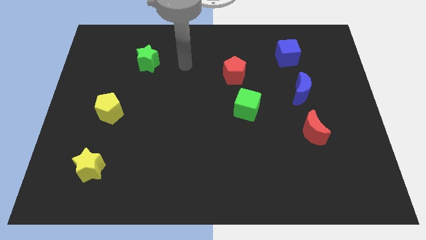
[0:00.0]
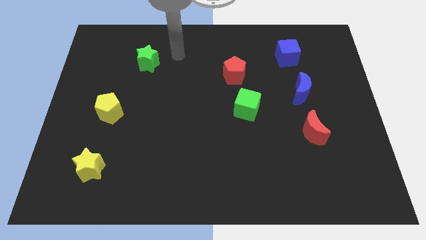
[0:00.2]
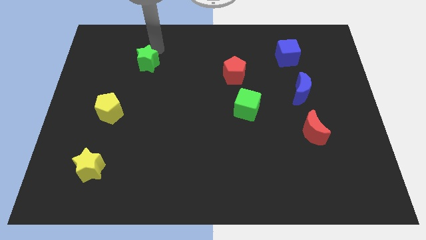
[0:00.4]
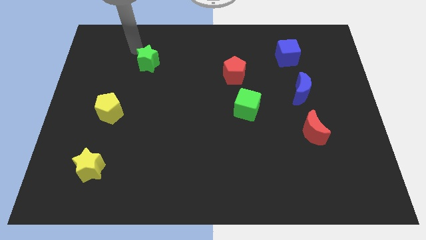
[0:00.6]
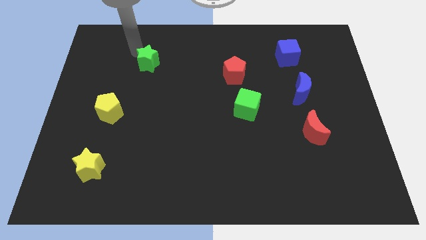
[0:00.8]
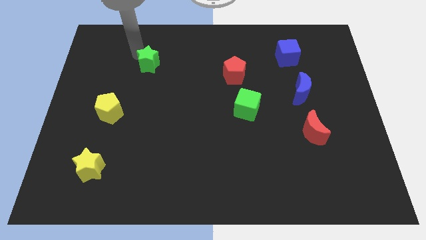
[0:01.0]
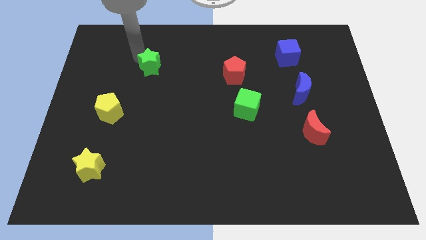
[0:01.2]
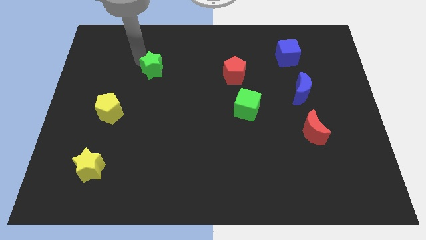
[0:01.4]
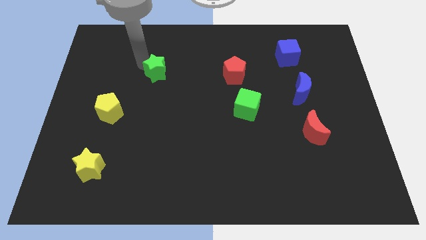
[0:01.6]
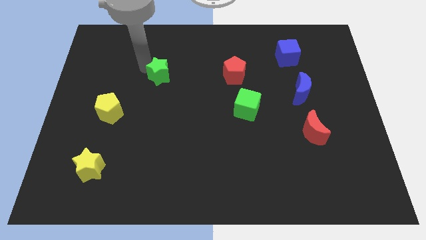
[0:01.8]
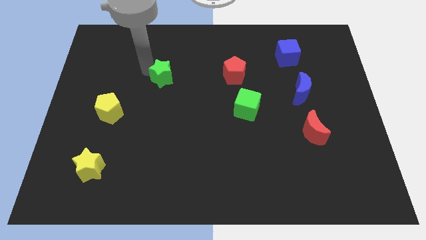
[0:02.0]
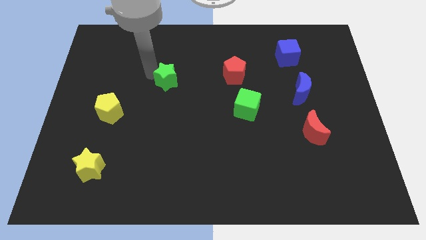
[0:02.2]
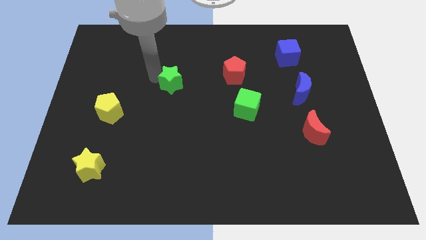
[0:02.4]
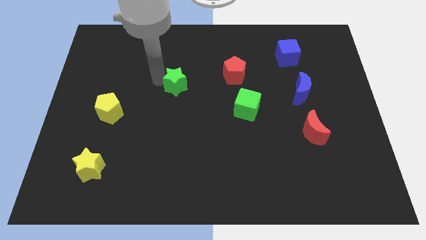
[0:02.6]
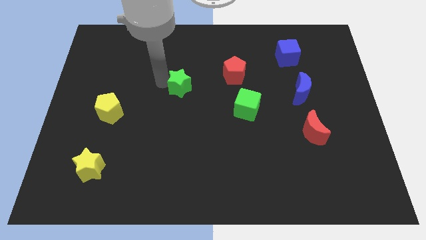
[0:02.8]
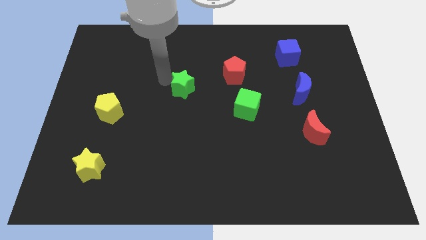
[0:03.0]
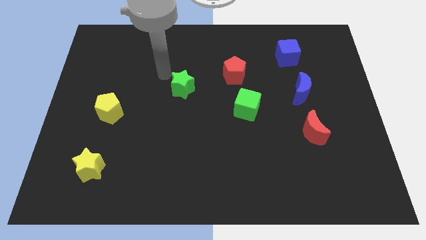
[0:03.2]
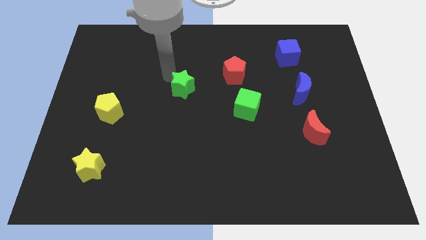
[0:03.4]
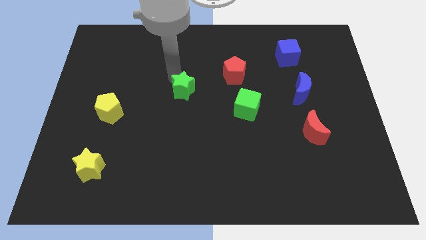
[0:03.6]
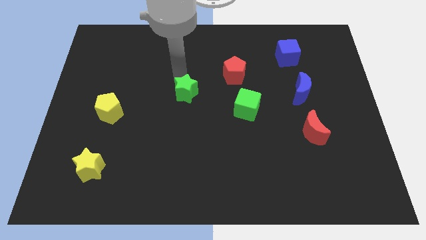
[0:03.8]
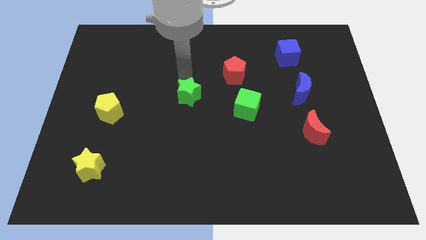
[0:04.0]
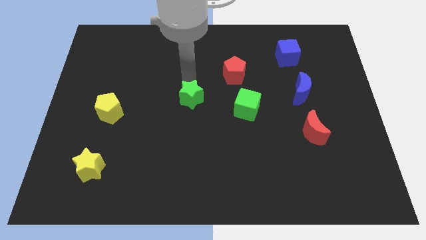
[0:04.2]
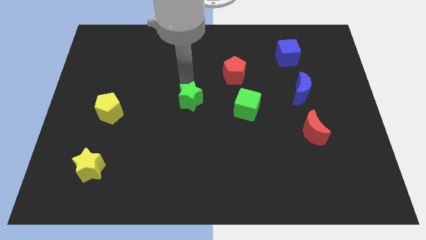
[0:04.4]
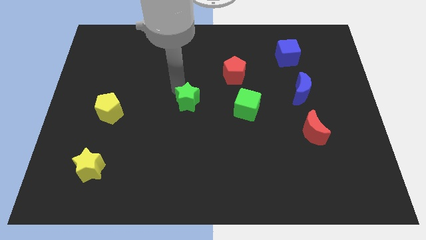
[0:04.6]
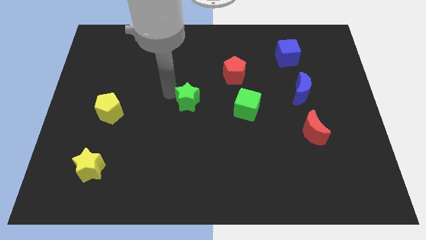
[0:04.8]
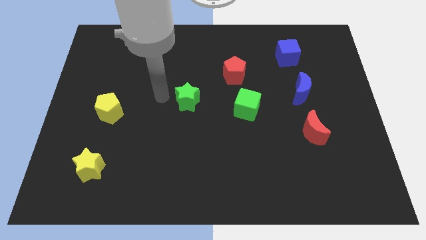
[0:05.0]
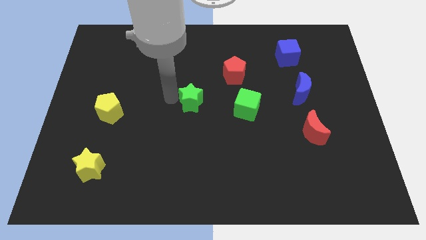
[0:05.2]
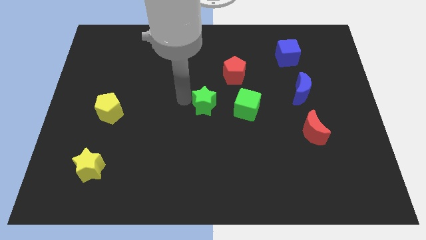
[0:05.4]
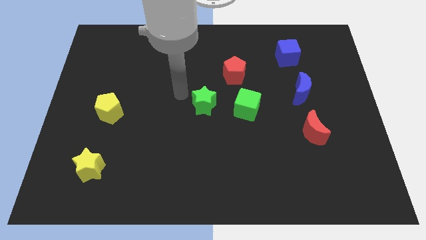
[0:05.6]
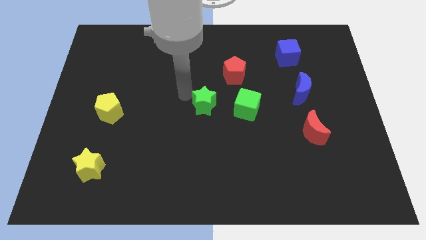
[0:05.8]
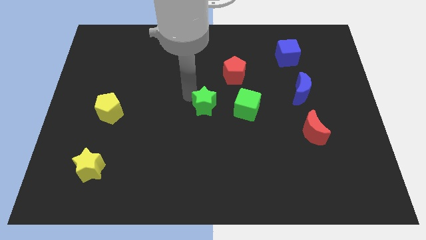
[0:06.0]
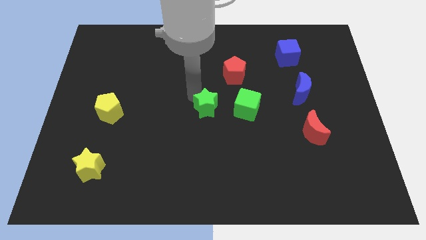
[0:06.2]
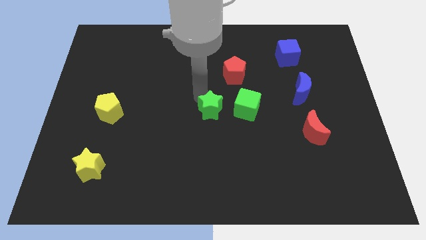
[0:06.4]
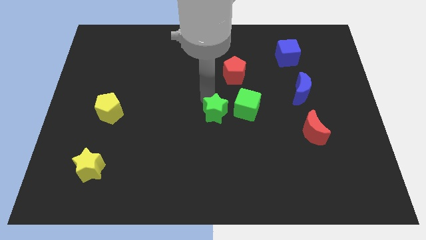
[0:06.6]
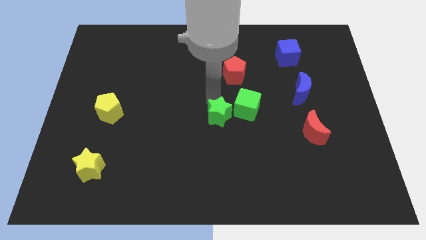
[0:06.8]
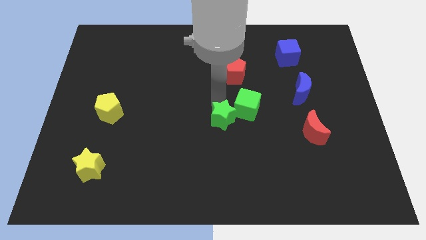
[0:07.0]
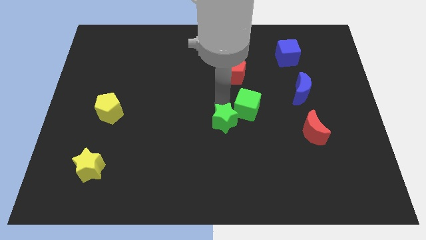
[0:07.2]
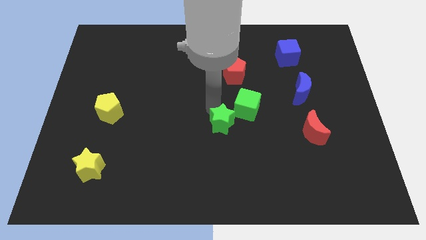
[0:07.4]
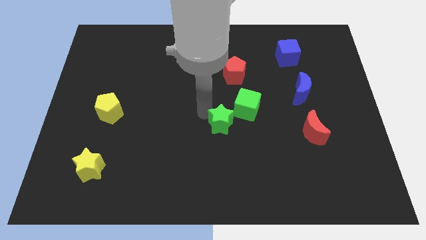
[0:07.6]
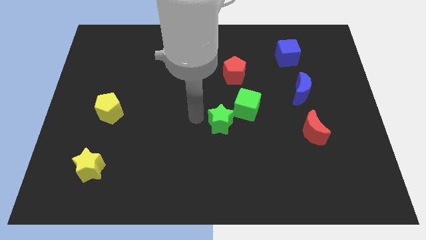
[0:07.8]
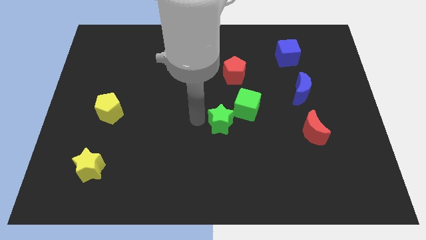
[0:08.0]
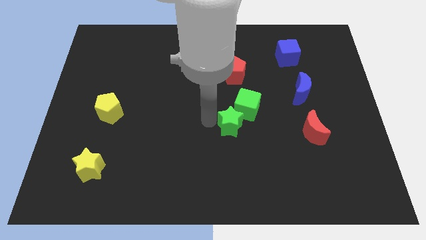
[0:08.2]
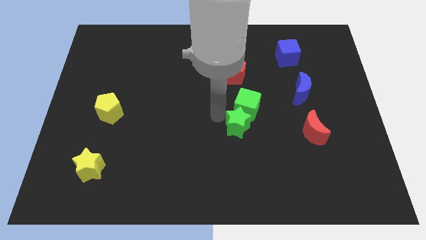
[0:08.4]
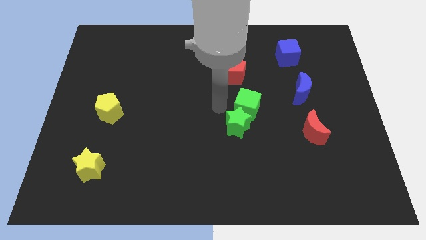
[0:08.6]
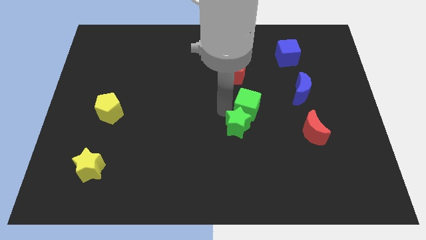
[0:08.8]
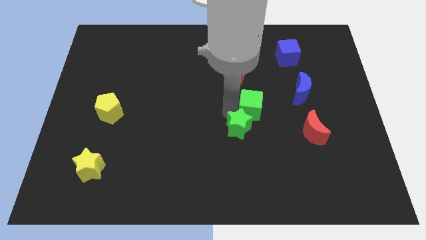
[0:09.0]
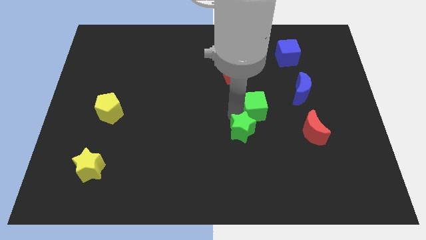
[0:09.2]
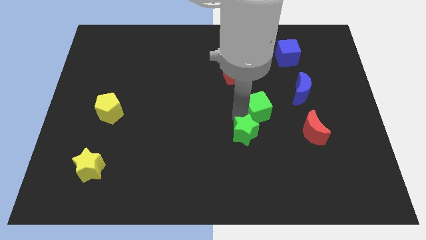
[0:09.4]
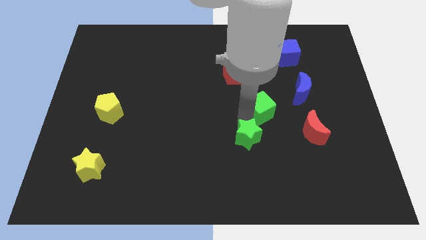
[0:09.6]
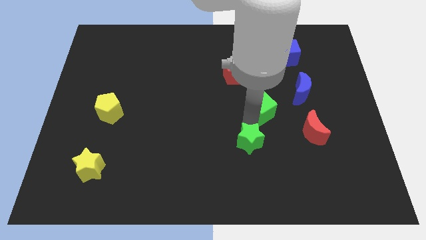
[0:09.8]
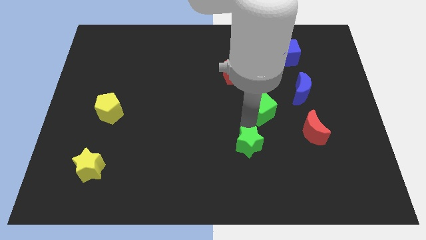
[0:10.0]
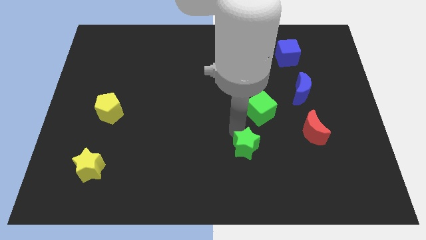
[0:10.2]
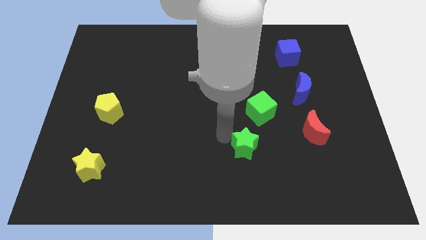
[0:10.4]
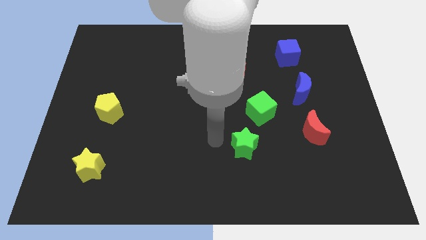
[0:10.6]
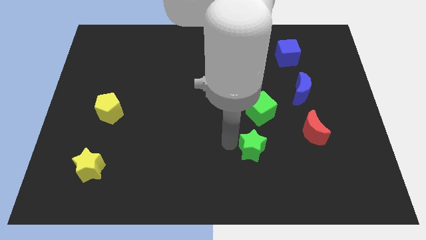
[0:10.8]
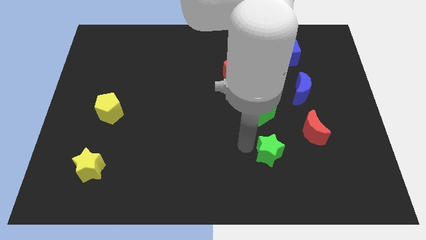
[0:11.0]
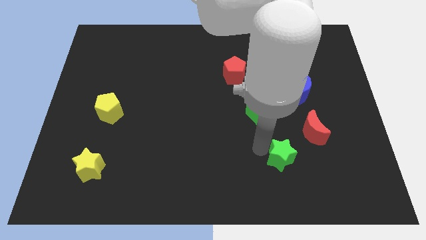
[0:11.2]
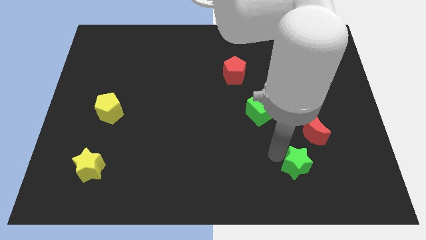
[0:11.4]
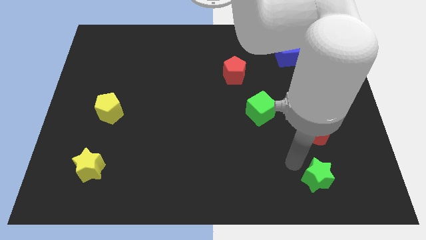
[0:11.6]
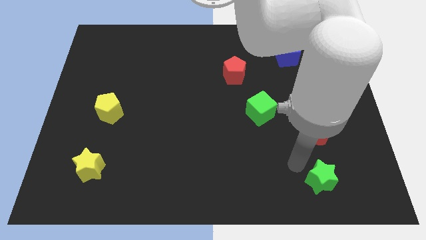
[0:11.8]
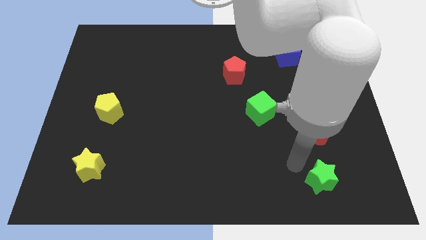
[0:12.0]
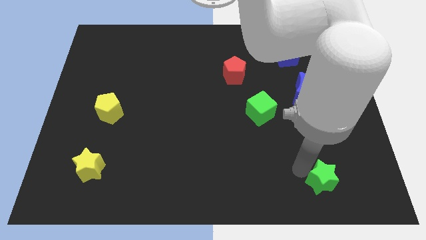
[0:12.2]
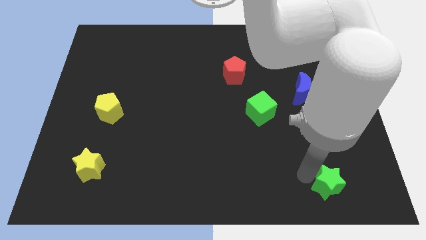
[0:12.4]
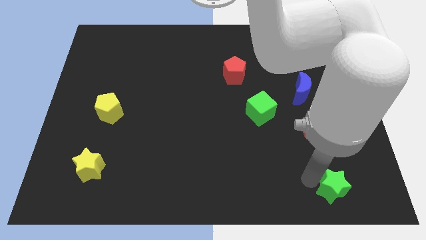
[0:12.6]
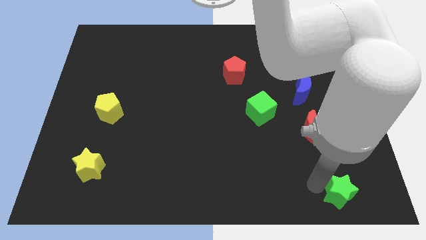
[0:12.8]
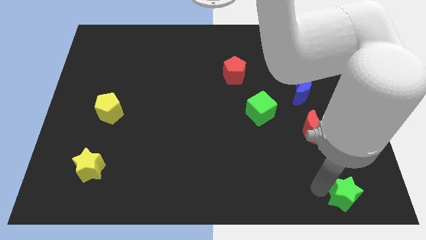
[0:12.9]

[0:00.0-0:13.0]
slide the green star to the bottom right
